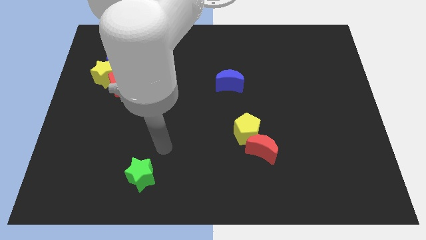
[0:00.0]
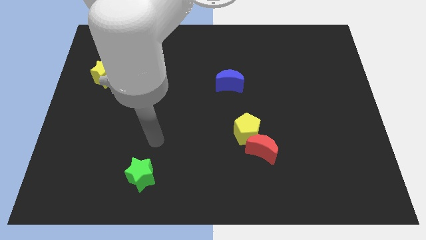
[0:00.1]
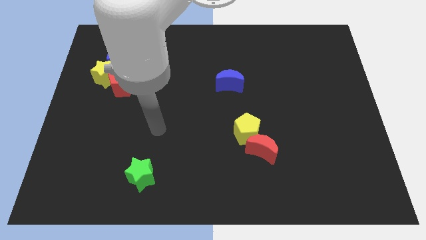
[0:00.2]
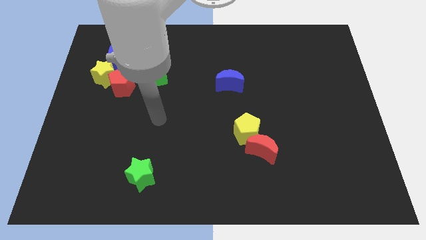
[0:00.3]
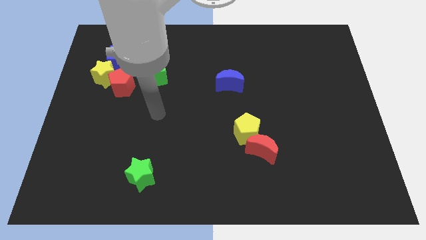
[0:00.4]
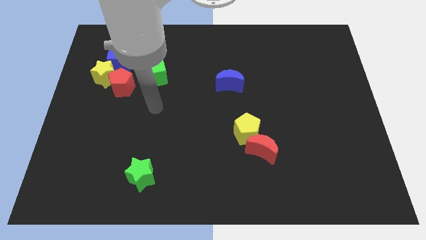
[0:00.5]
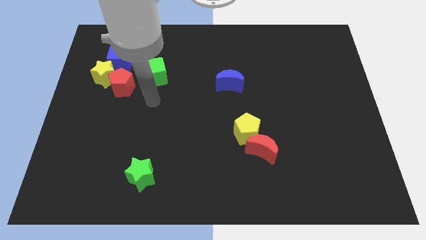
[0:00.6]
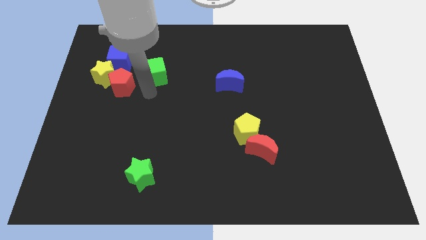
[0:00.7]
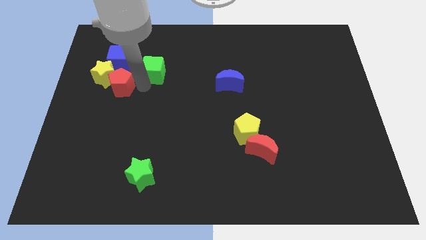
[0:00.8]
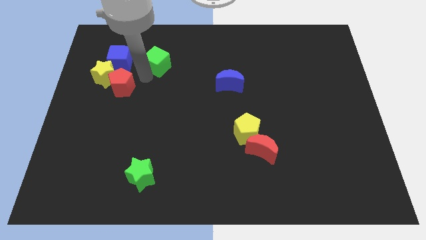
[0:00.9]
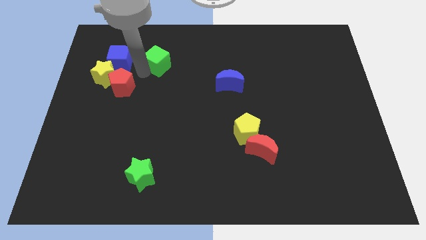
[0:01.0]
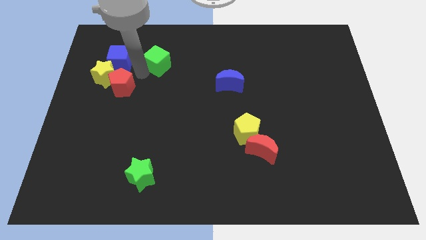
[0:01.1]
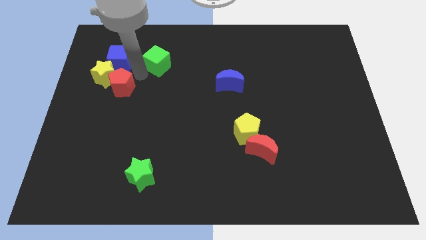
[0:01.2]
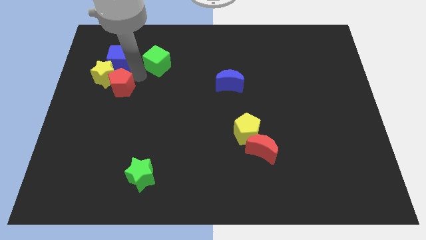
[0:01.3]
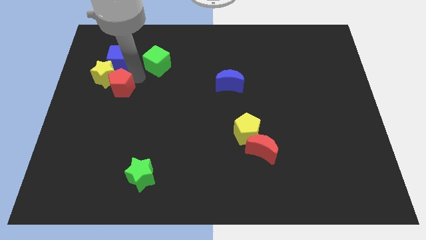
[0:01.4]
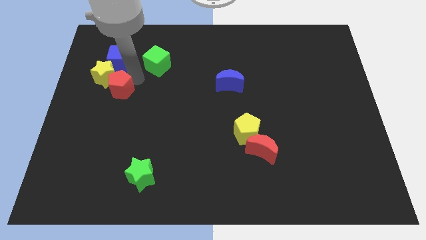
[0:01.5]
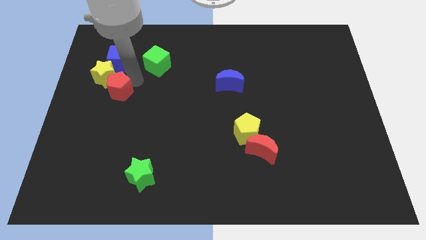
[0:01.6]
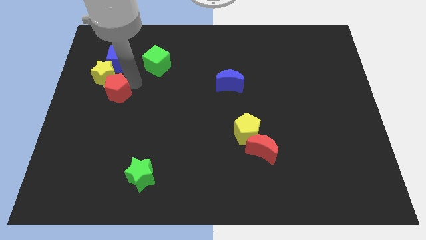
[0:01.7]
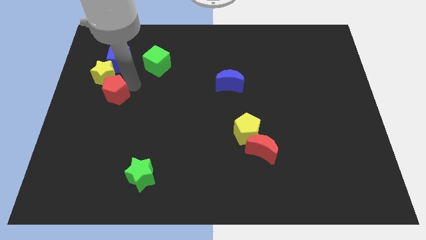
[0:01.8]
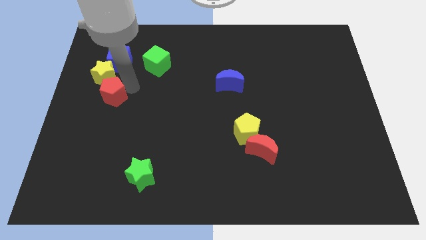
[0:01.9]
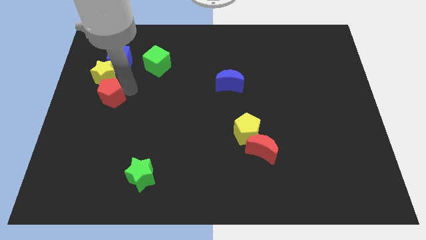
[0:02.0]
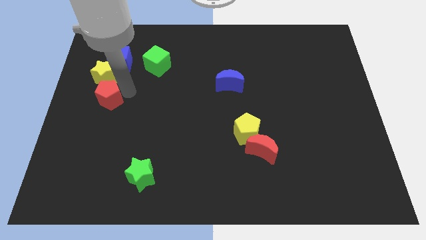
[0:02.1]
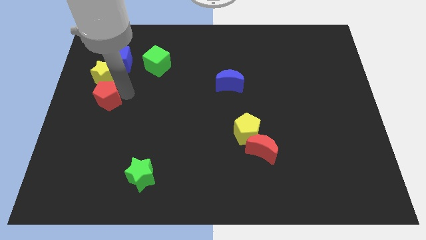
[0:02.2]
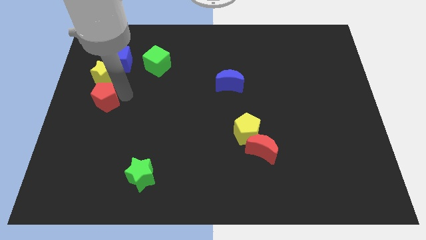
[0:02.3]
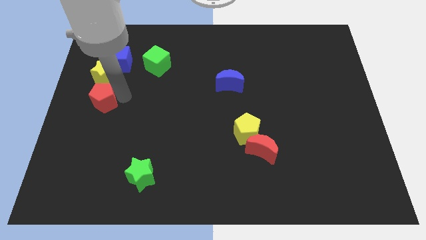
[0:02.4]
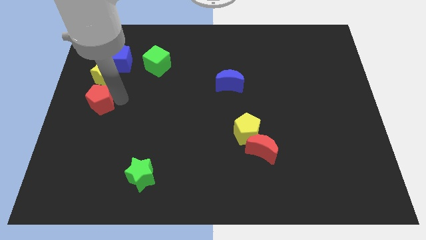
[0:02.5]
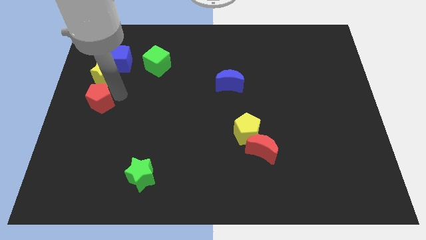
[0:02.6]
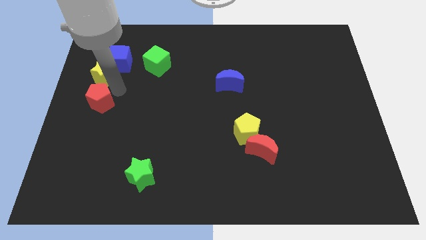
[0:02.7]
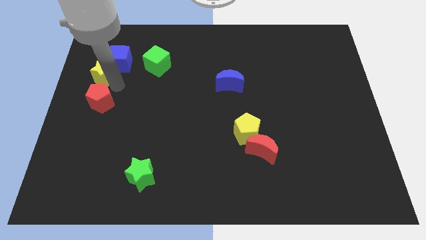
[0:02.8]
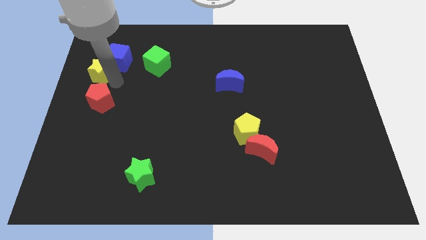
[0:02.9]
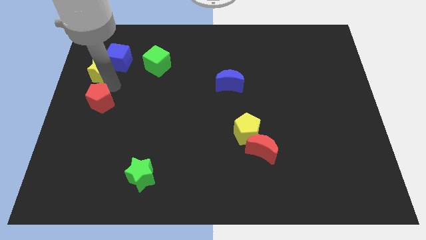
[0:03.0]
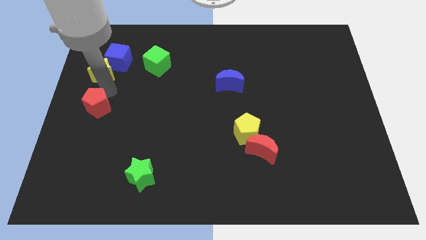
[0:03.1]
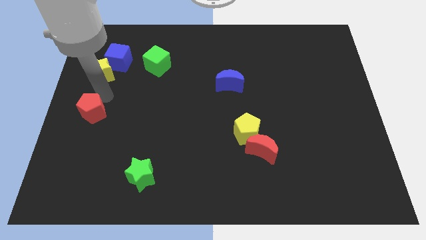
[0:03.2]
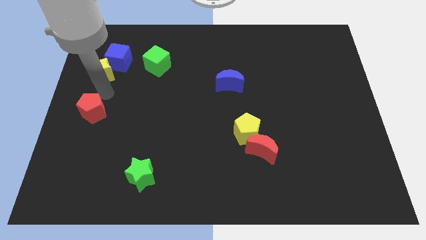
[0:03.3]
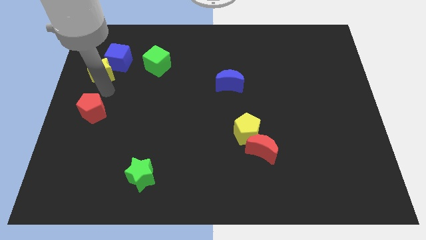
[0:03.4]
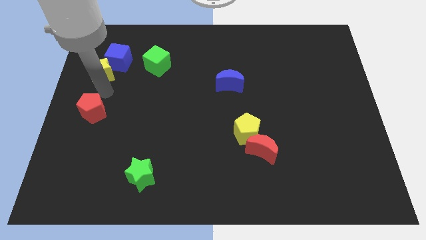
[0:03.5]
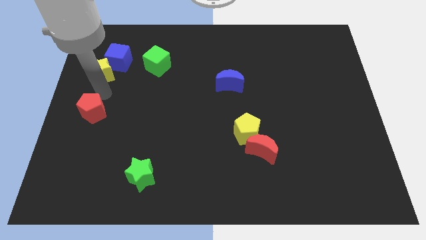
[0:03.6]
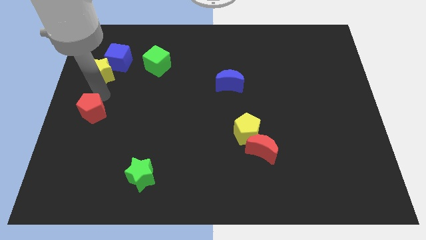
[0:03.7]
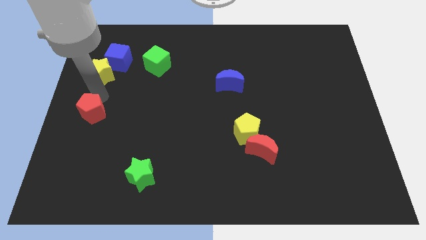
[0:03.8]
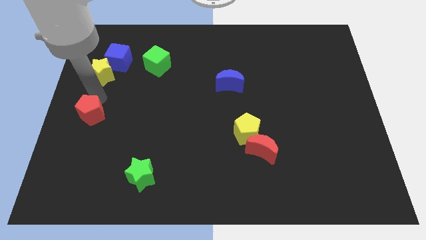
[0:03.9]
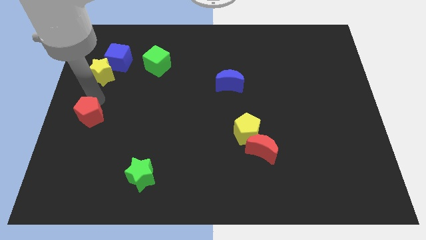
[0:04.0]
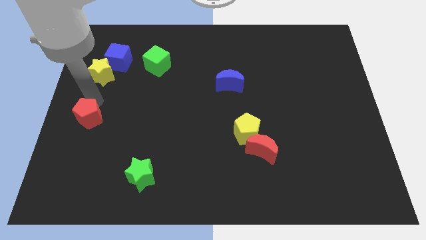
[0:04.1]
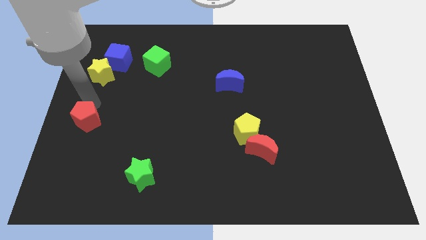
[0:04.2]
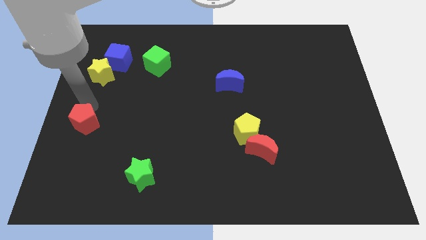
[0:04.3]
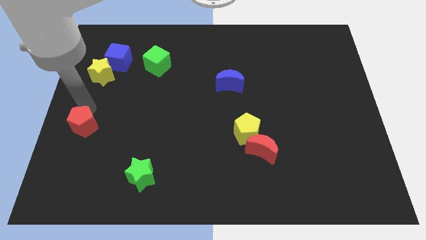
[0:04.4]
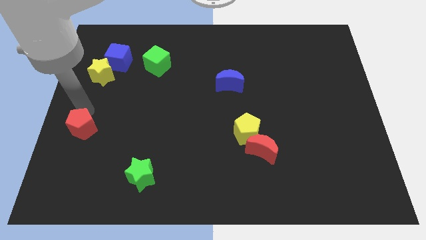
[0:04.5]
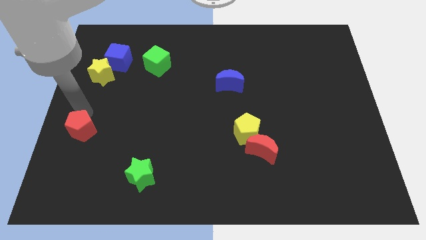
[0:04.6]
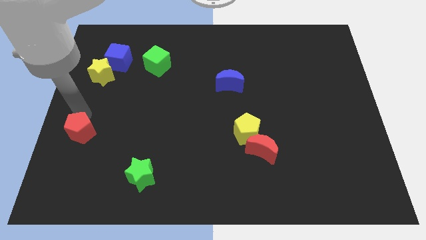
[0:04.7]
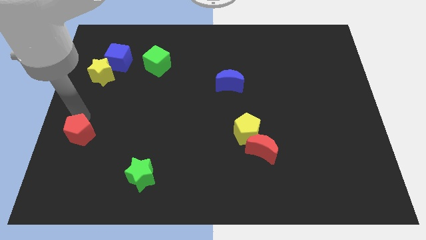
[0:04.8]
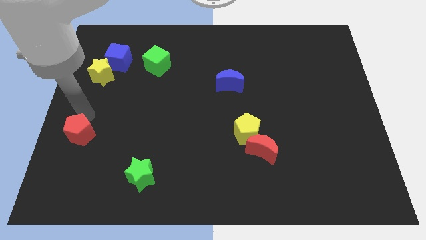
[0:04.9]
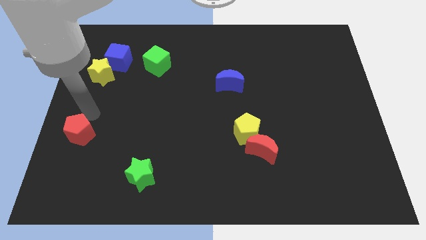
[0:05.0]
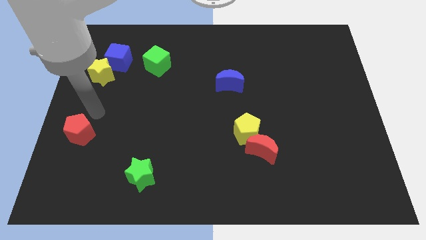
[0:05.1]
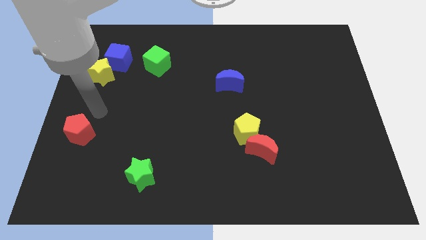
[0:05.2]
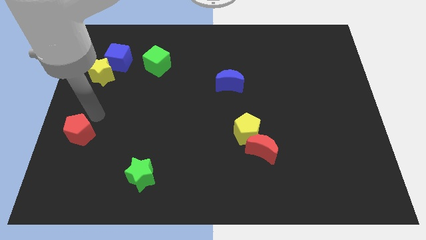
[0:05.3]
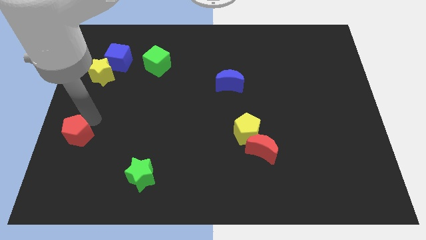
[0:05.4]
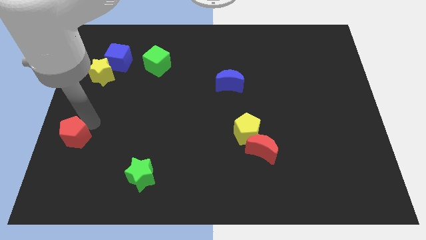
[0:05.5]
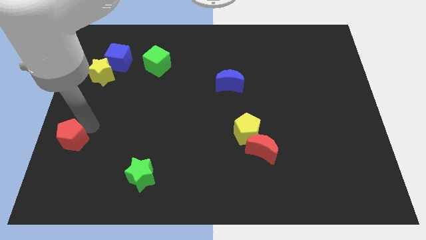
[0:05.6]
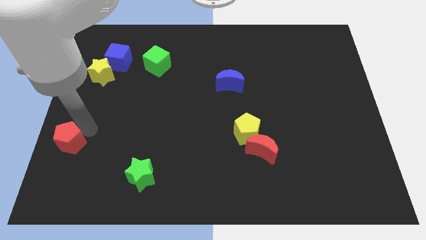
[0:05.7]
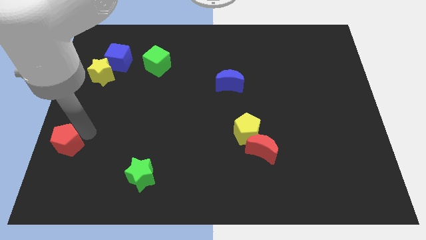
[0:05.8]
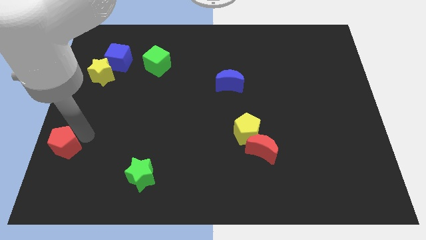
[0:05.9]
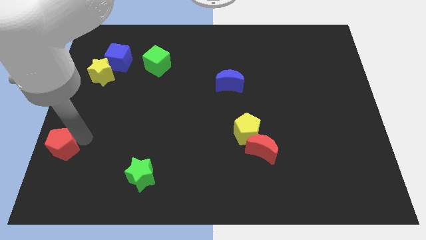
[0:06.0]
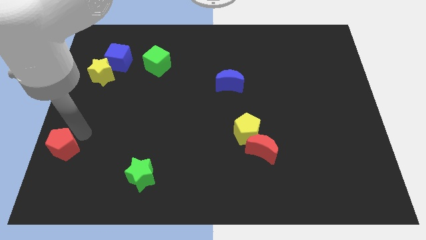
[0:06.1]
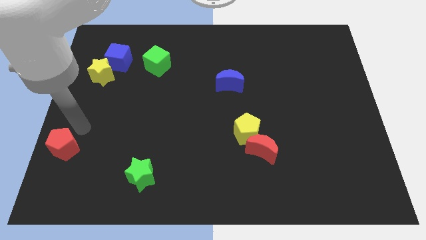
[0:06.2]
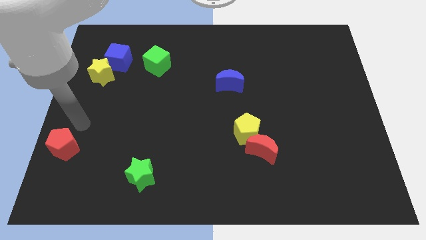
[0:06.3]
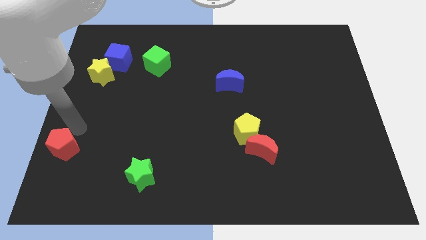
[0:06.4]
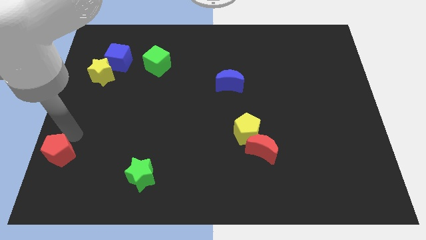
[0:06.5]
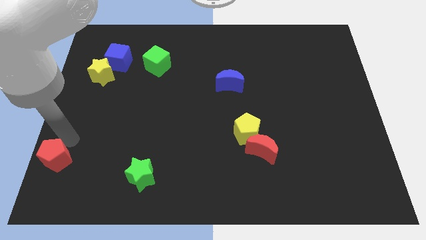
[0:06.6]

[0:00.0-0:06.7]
move the red pentagon to the bottom left
